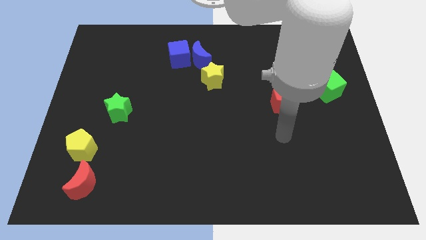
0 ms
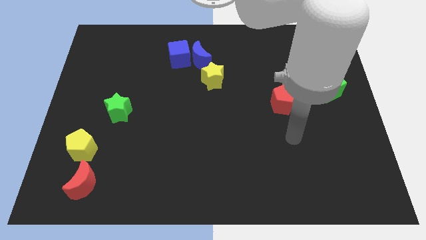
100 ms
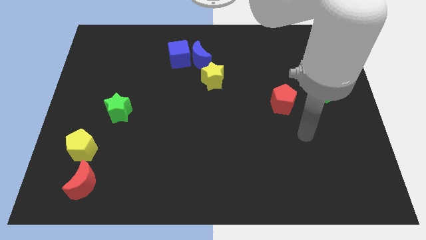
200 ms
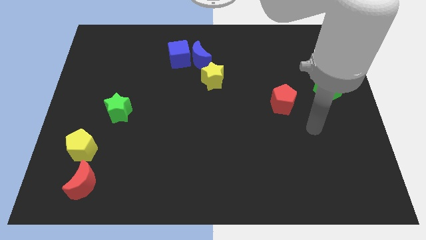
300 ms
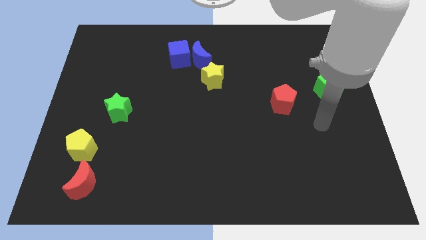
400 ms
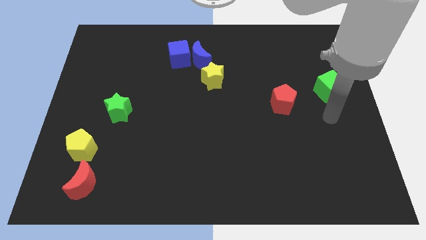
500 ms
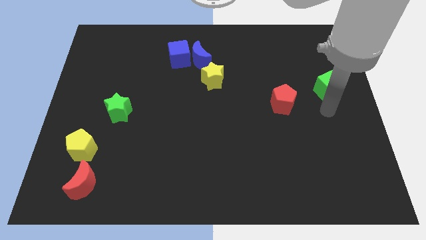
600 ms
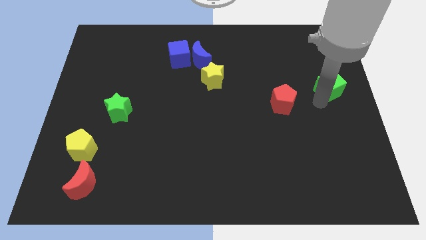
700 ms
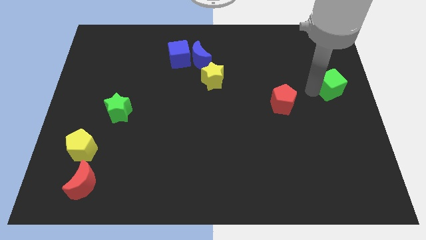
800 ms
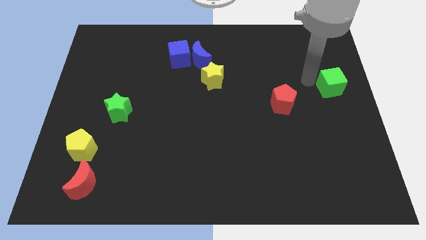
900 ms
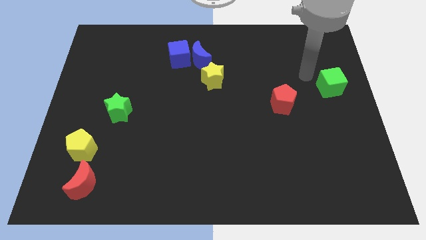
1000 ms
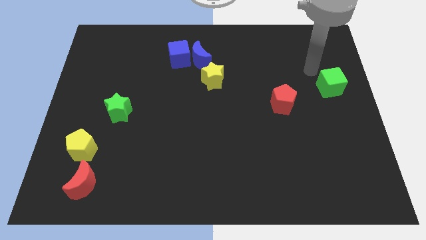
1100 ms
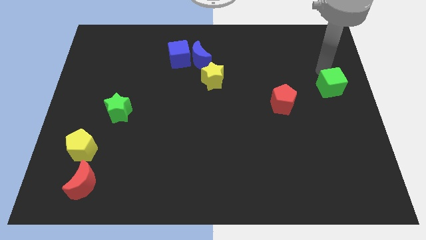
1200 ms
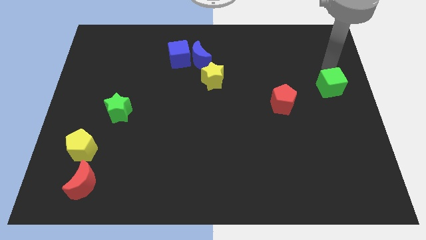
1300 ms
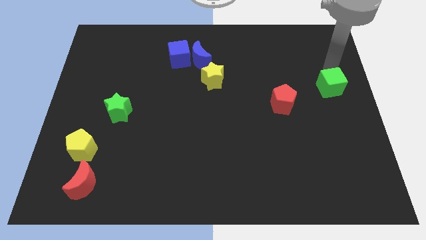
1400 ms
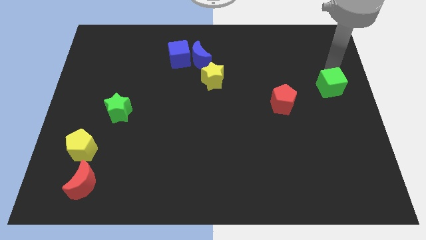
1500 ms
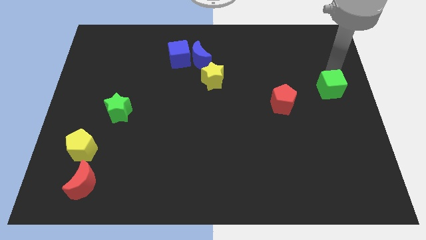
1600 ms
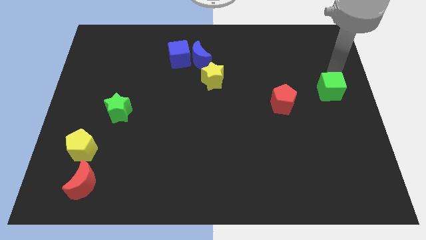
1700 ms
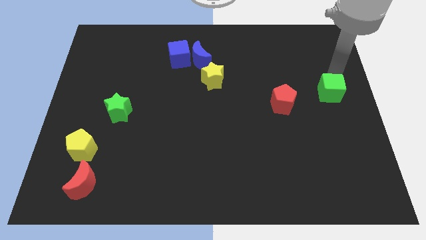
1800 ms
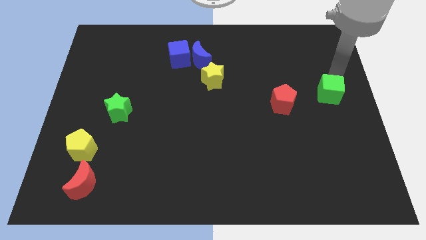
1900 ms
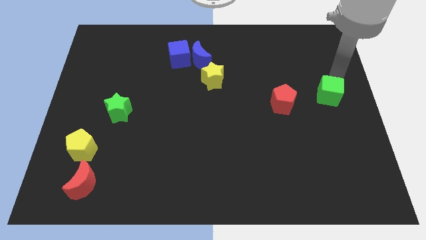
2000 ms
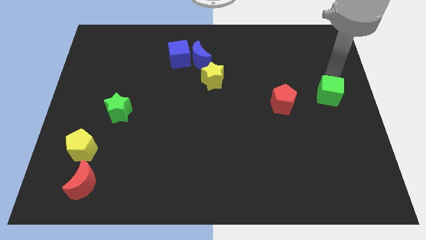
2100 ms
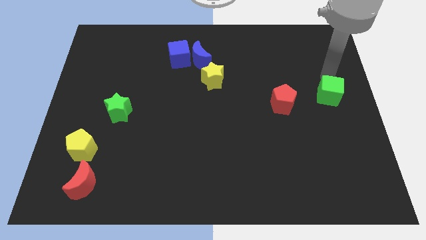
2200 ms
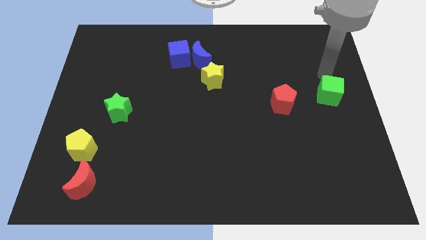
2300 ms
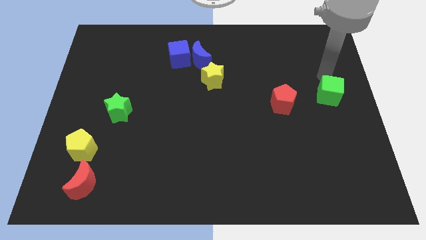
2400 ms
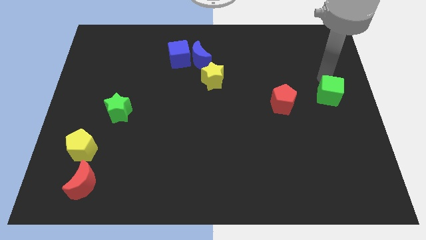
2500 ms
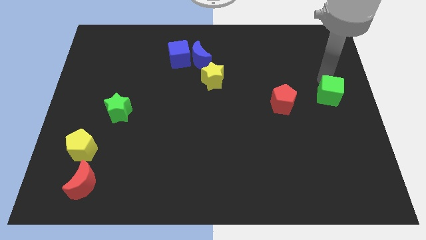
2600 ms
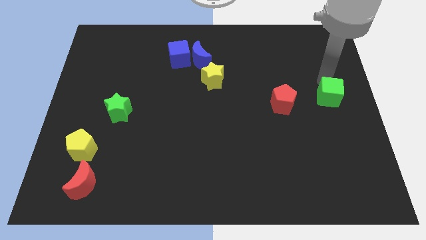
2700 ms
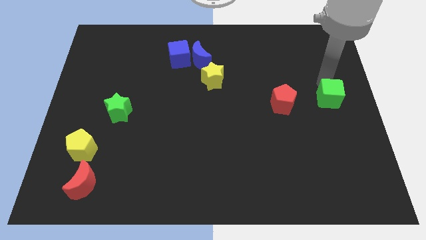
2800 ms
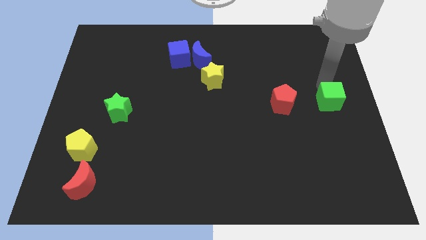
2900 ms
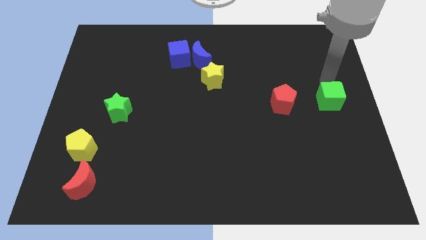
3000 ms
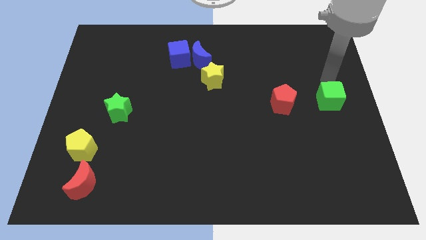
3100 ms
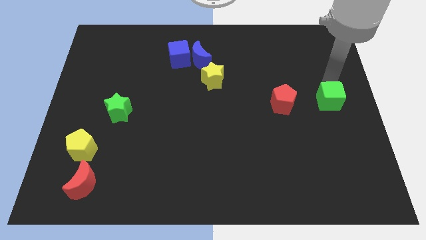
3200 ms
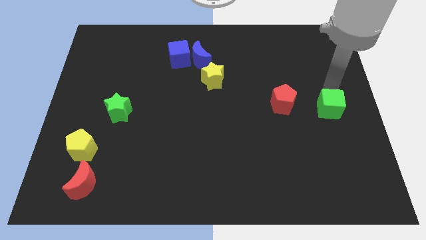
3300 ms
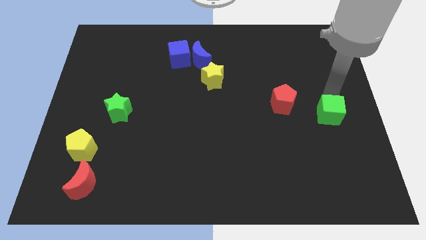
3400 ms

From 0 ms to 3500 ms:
slide the green cube downwards somewhat

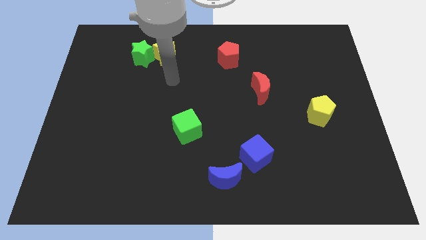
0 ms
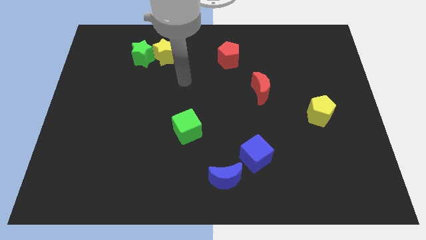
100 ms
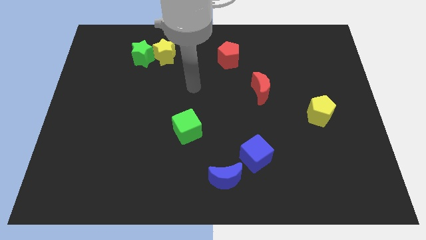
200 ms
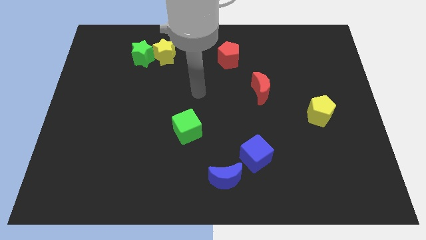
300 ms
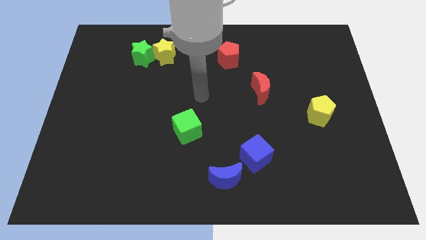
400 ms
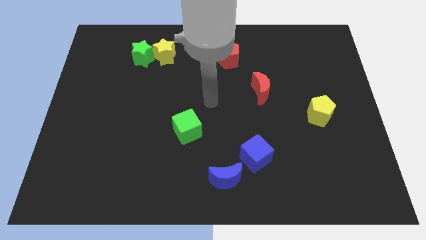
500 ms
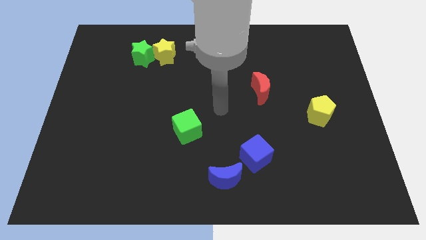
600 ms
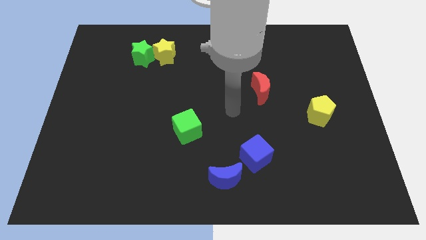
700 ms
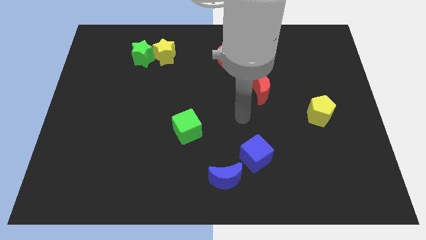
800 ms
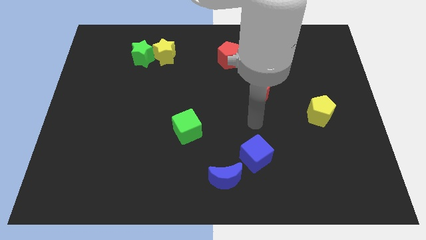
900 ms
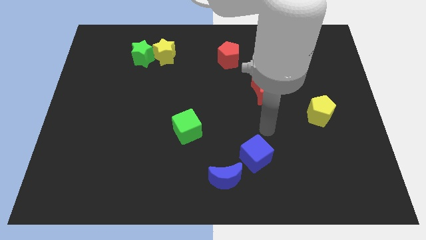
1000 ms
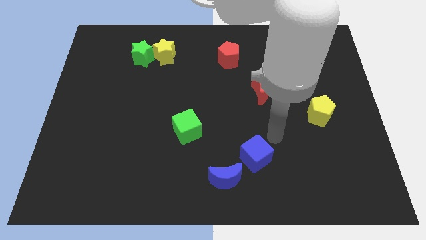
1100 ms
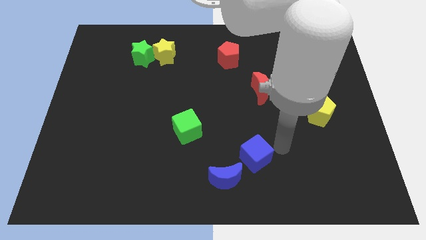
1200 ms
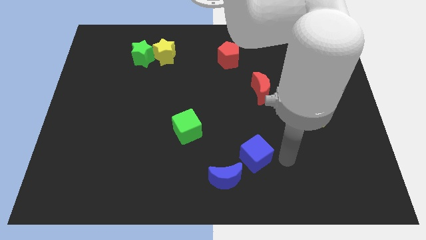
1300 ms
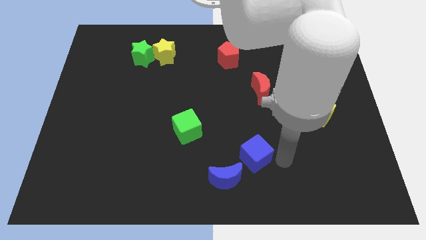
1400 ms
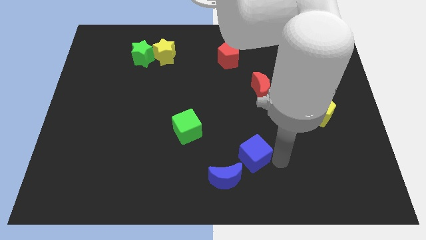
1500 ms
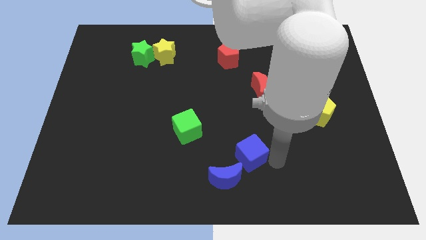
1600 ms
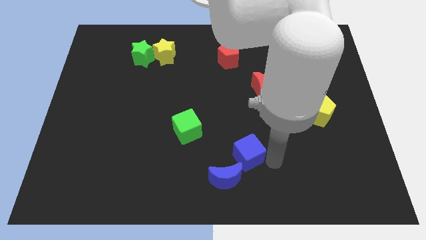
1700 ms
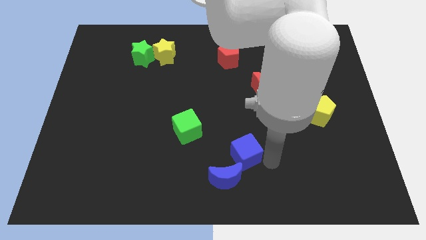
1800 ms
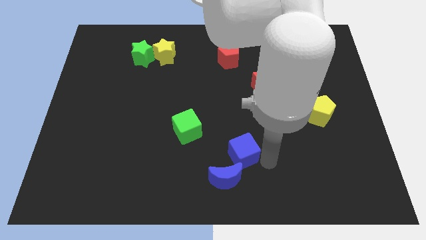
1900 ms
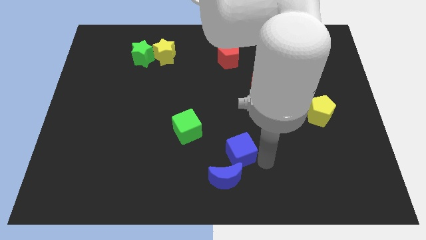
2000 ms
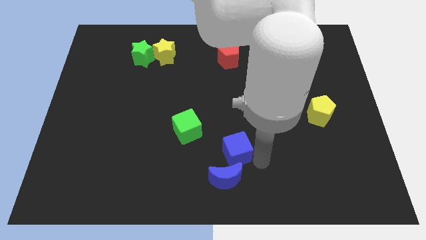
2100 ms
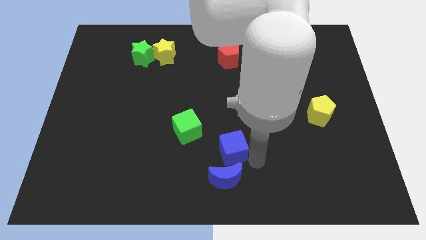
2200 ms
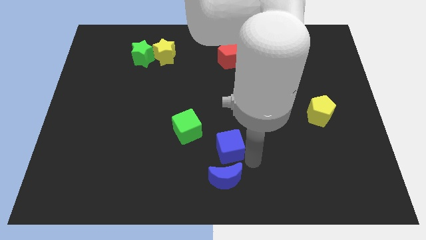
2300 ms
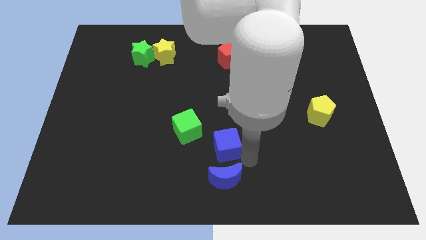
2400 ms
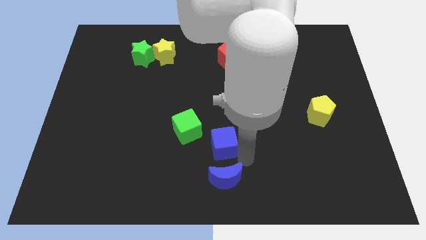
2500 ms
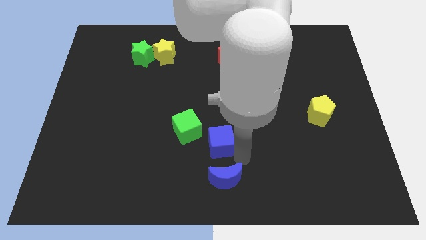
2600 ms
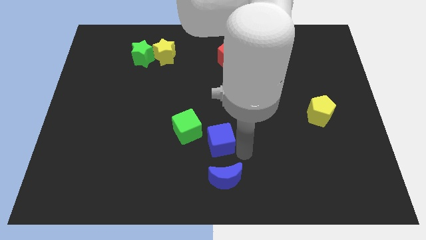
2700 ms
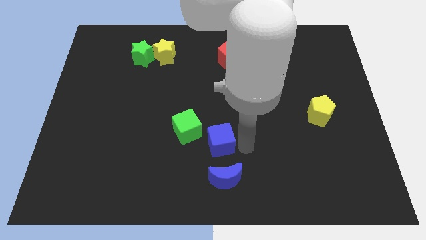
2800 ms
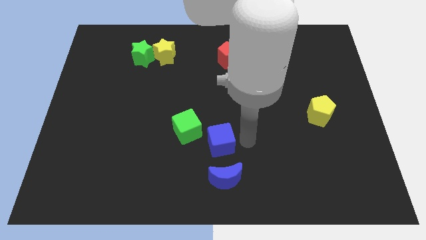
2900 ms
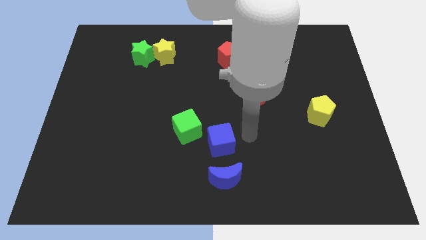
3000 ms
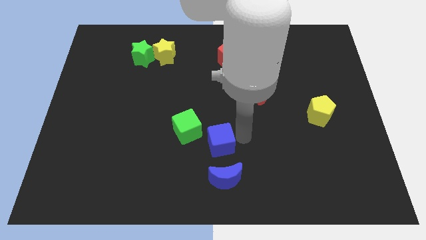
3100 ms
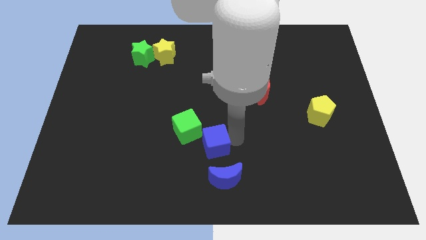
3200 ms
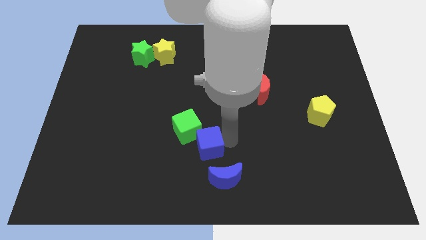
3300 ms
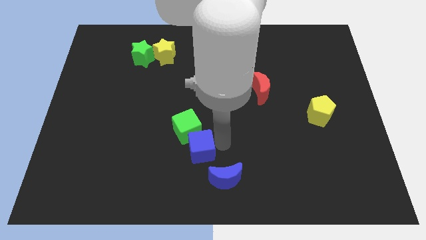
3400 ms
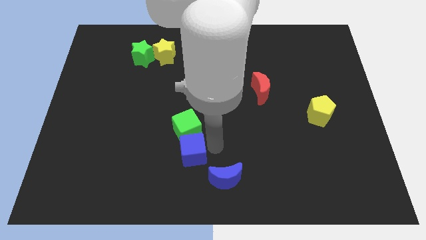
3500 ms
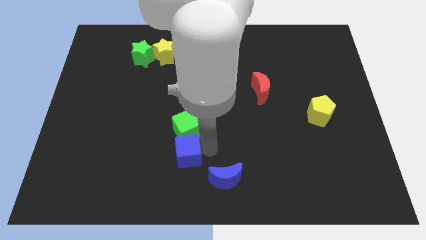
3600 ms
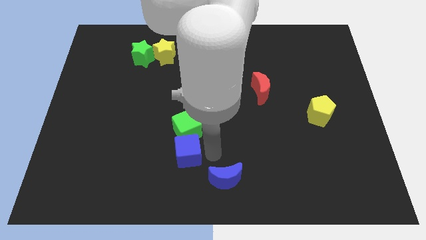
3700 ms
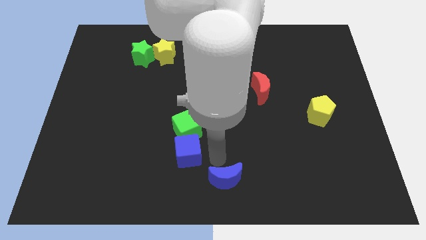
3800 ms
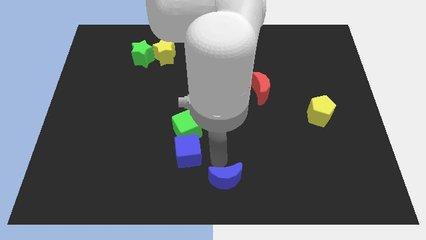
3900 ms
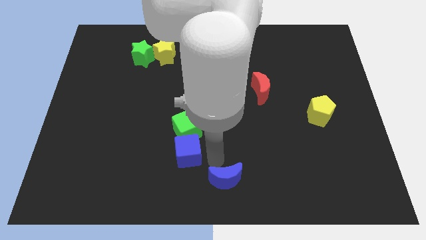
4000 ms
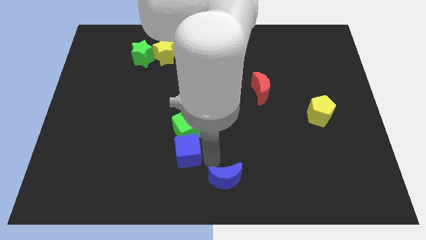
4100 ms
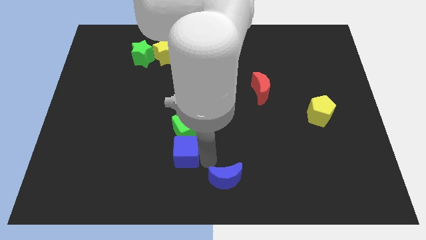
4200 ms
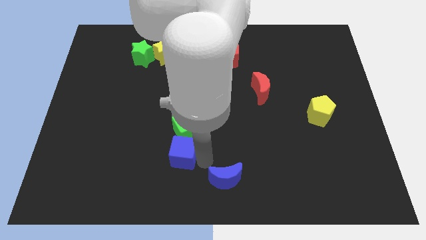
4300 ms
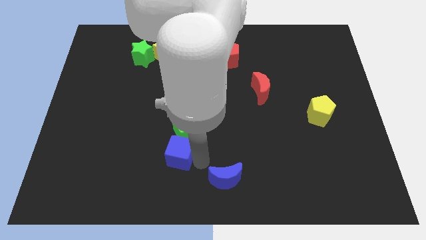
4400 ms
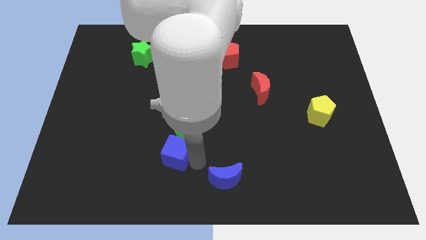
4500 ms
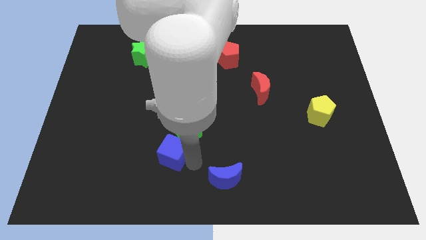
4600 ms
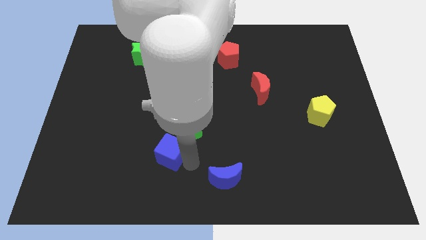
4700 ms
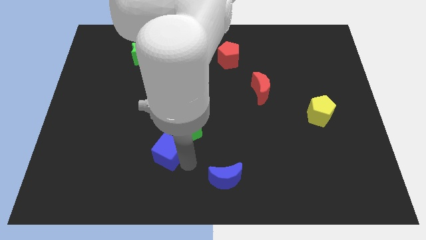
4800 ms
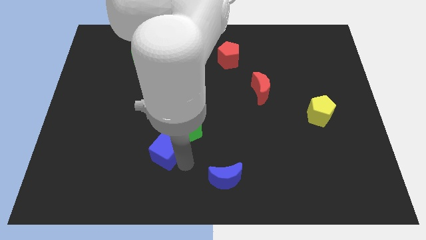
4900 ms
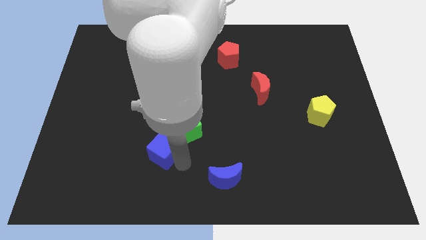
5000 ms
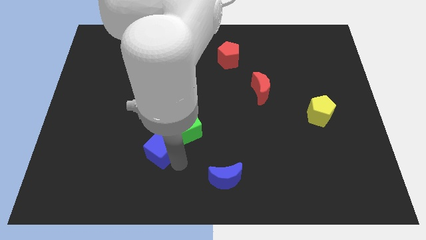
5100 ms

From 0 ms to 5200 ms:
push the blue cube left
